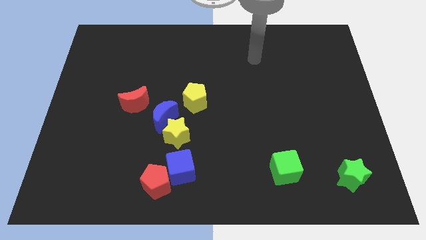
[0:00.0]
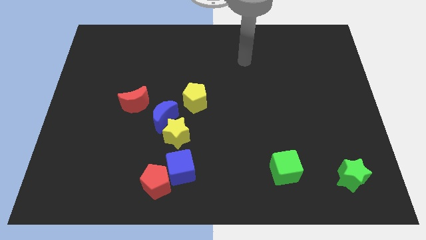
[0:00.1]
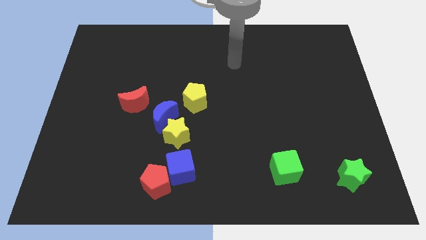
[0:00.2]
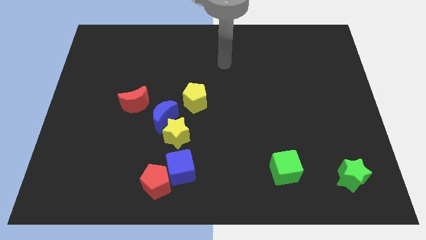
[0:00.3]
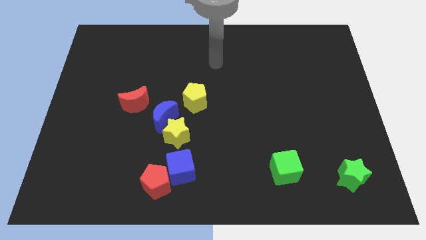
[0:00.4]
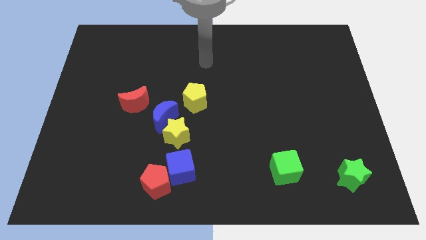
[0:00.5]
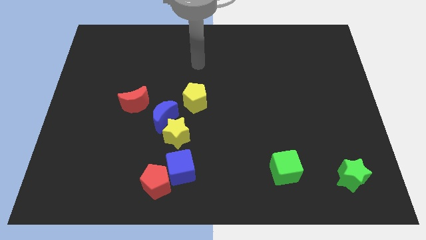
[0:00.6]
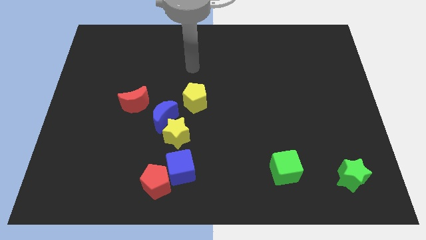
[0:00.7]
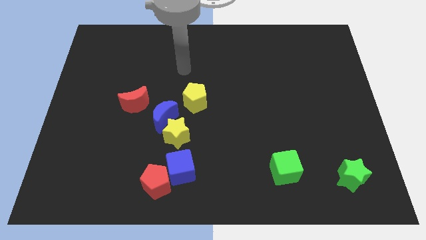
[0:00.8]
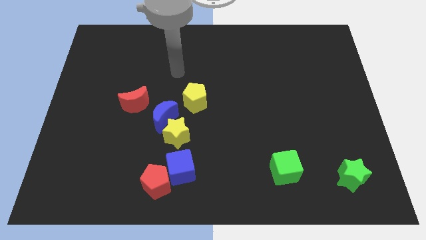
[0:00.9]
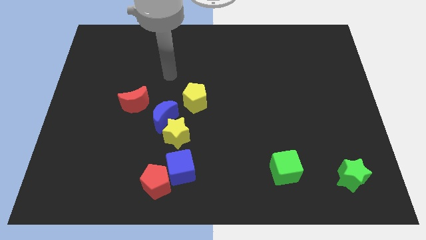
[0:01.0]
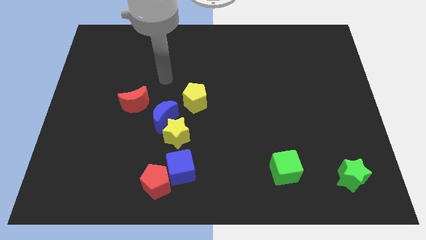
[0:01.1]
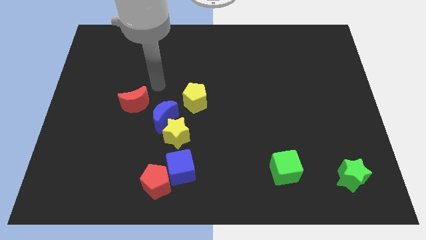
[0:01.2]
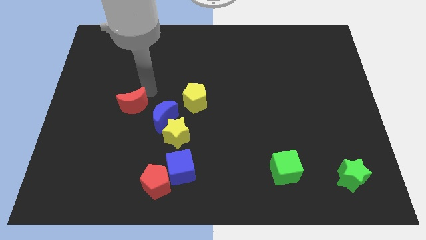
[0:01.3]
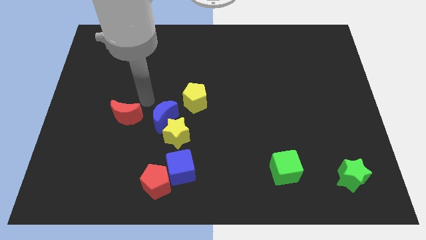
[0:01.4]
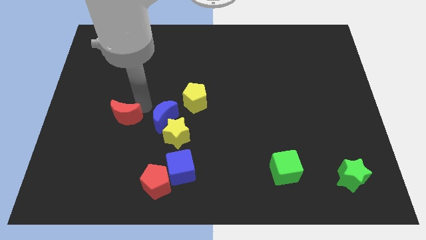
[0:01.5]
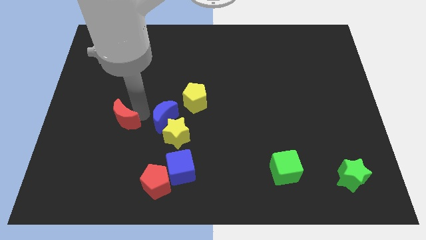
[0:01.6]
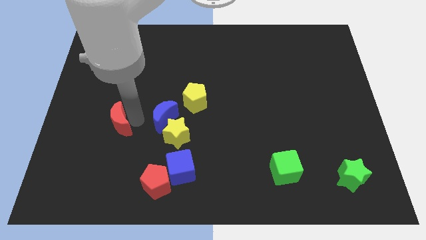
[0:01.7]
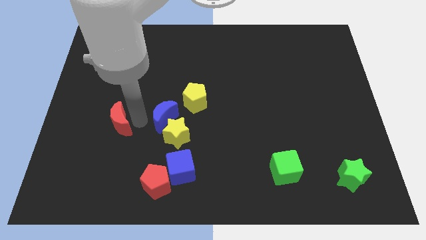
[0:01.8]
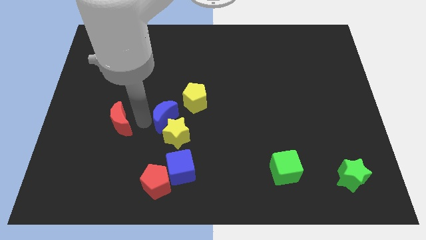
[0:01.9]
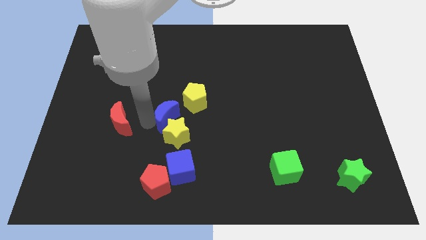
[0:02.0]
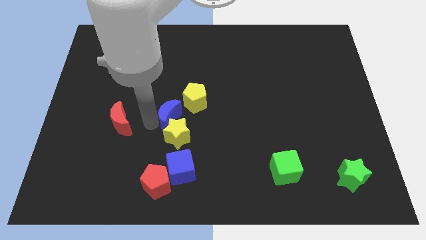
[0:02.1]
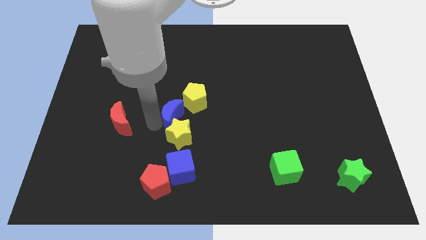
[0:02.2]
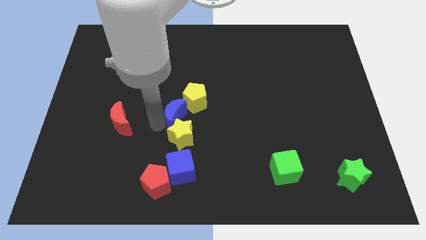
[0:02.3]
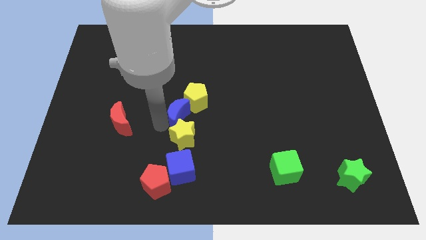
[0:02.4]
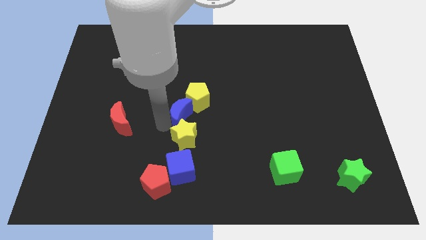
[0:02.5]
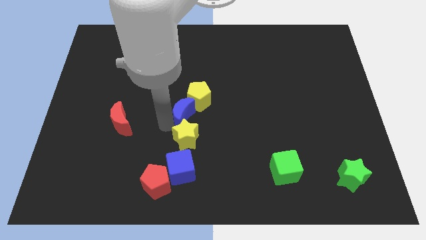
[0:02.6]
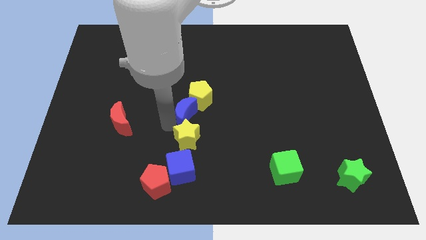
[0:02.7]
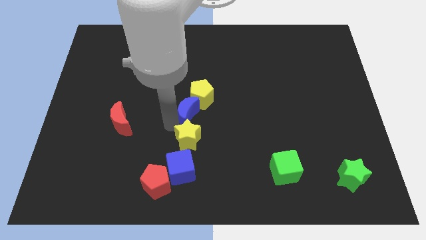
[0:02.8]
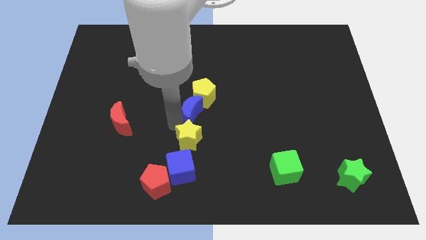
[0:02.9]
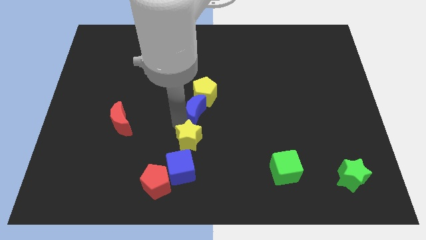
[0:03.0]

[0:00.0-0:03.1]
move the blue moon a little bit right

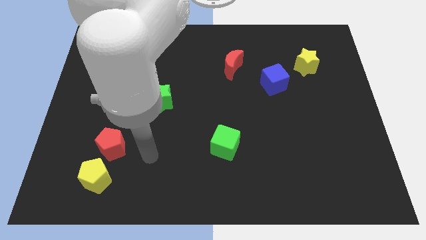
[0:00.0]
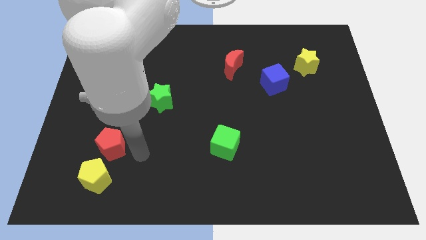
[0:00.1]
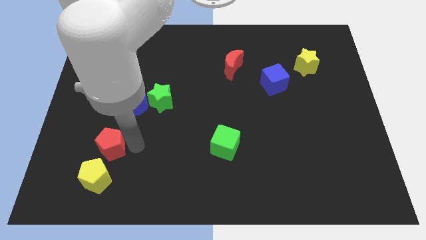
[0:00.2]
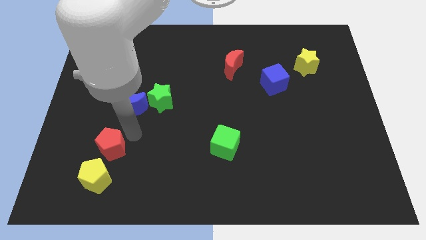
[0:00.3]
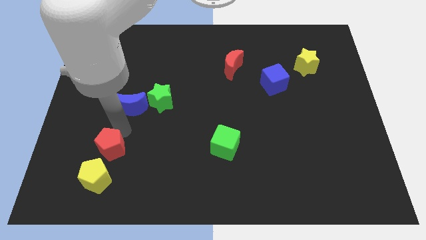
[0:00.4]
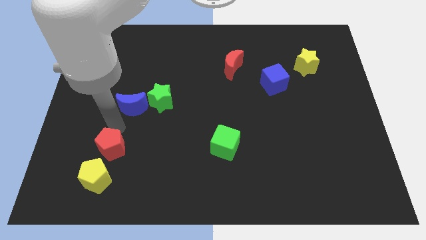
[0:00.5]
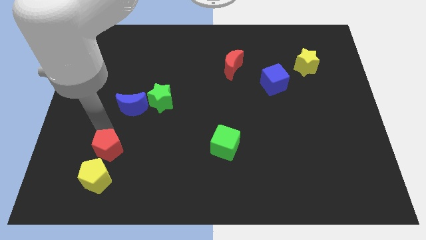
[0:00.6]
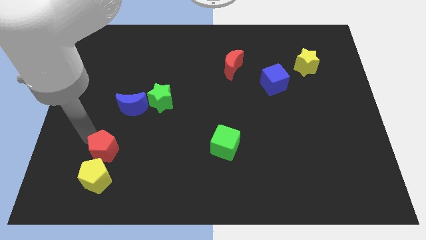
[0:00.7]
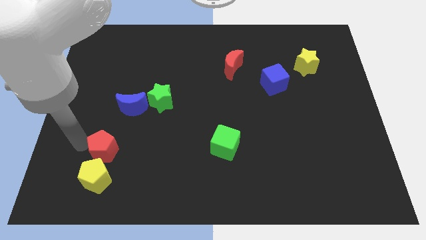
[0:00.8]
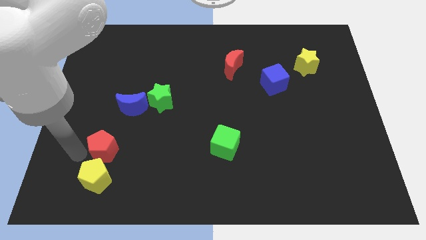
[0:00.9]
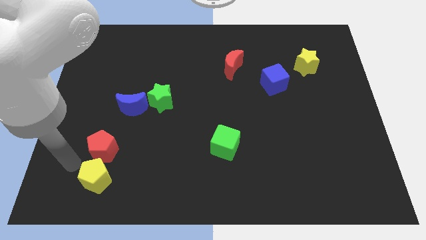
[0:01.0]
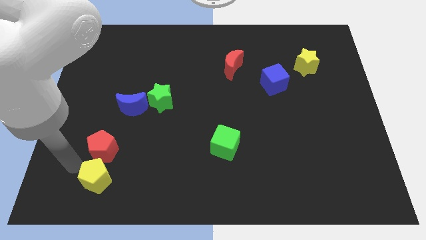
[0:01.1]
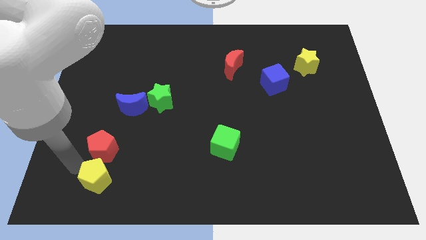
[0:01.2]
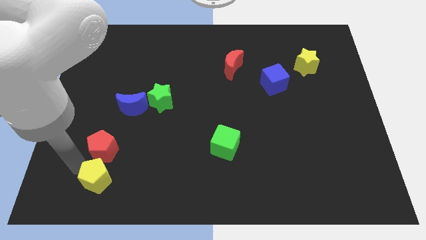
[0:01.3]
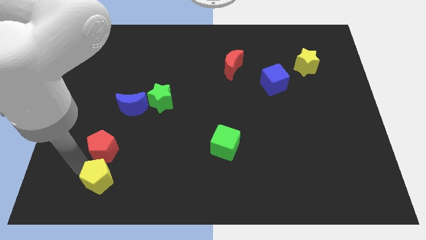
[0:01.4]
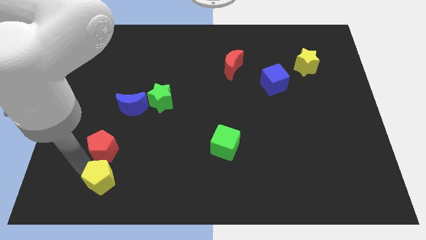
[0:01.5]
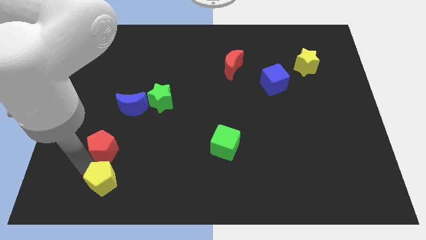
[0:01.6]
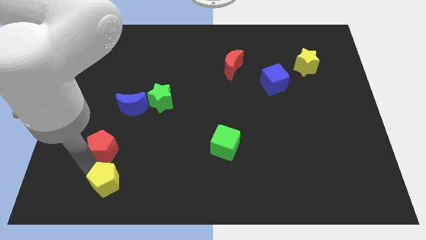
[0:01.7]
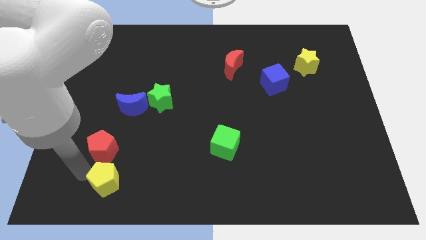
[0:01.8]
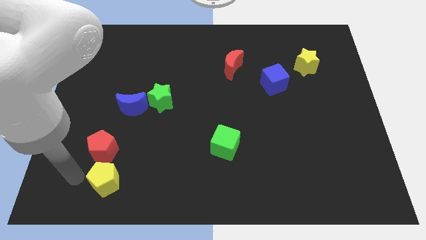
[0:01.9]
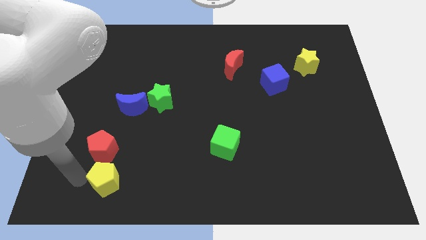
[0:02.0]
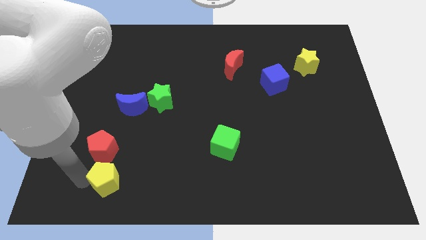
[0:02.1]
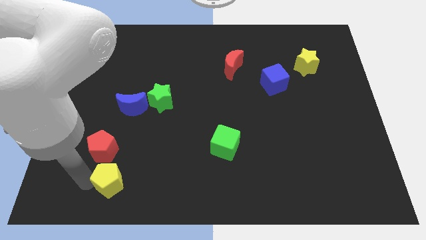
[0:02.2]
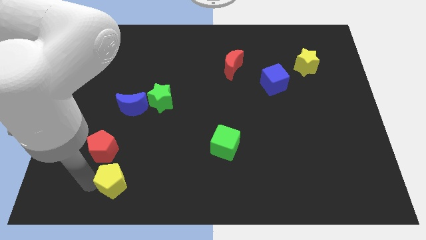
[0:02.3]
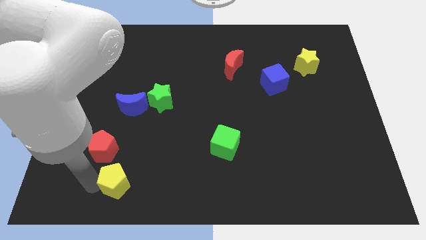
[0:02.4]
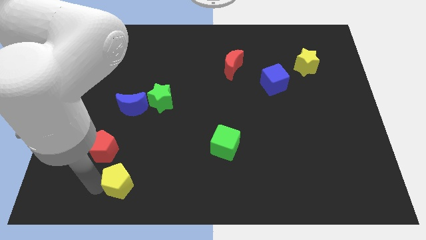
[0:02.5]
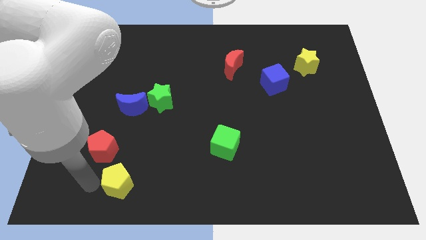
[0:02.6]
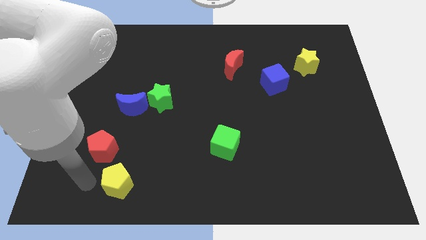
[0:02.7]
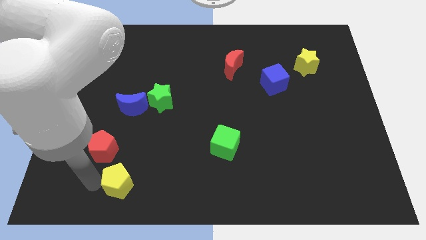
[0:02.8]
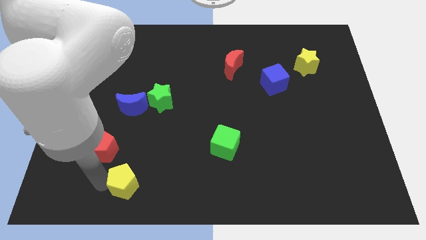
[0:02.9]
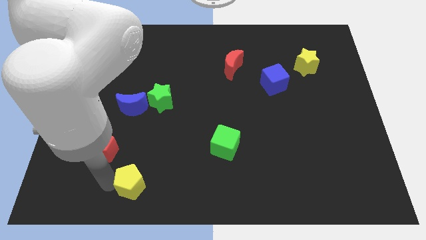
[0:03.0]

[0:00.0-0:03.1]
slide the yellow pentagon slightly to the right

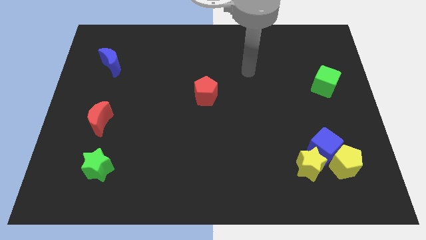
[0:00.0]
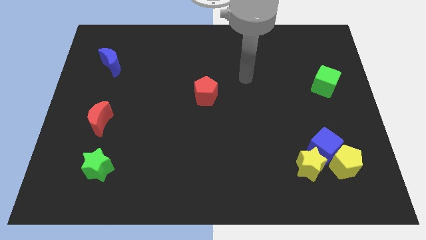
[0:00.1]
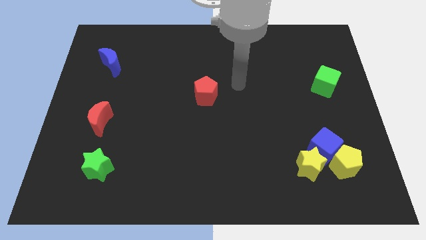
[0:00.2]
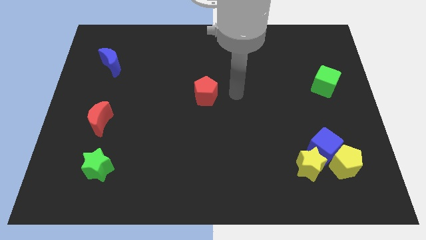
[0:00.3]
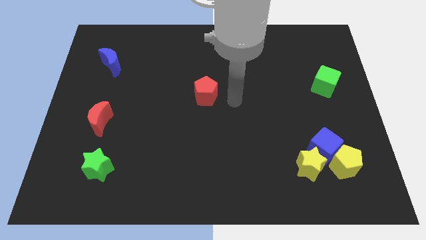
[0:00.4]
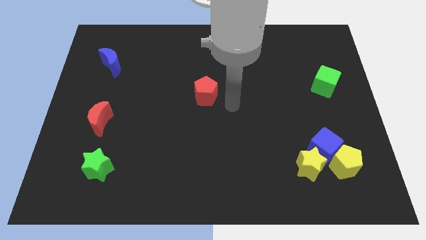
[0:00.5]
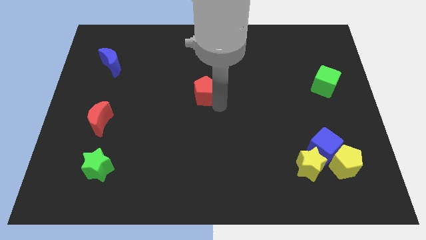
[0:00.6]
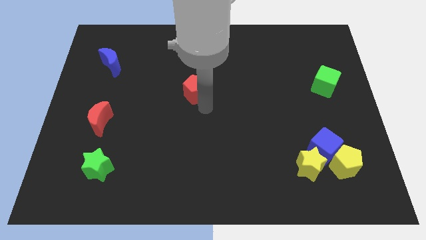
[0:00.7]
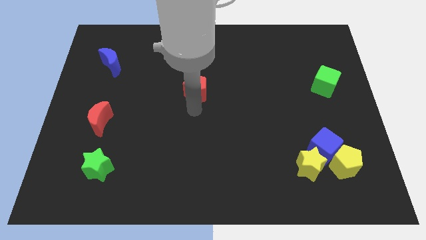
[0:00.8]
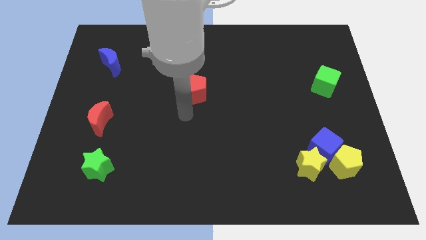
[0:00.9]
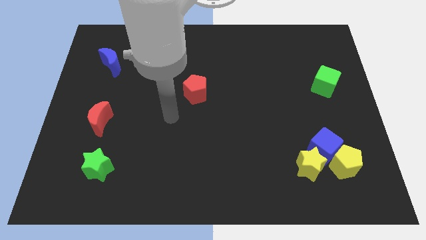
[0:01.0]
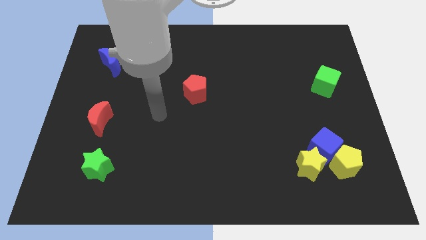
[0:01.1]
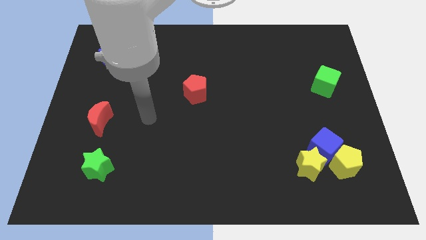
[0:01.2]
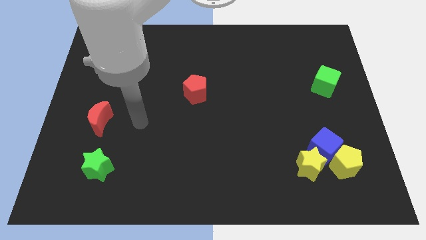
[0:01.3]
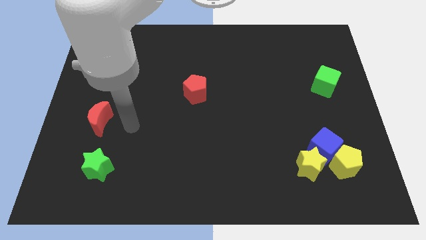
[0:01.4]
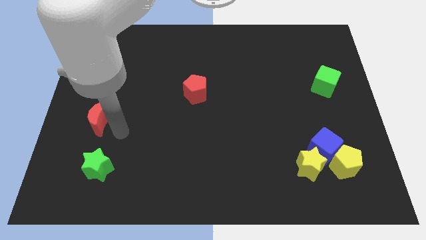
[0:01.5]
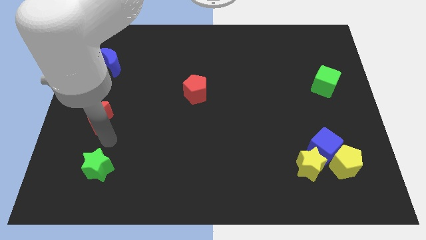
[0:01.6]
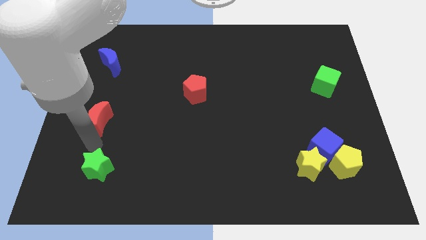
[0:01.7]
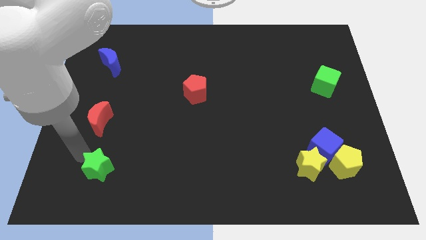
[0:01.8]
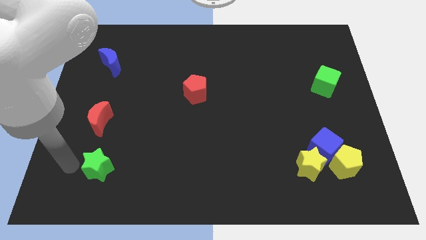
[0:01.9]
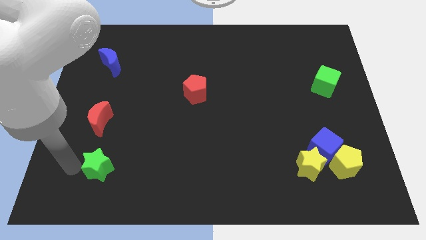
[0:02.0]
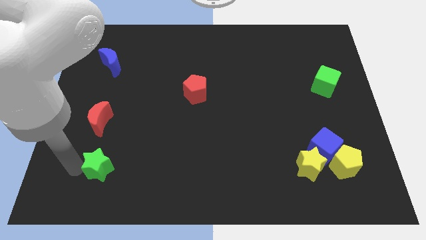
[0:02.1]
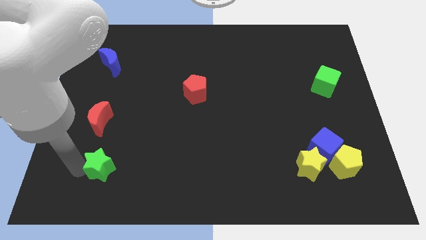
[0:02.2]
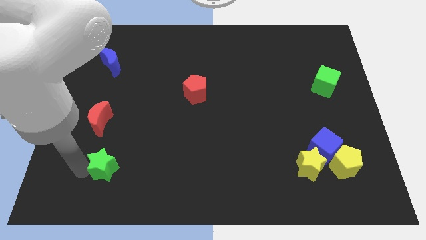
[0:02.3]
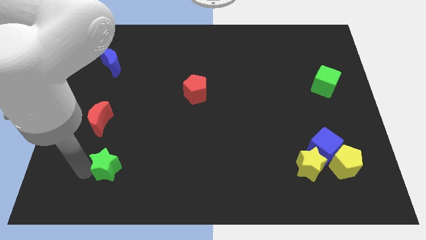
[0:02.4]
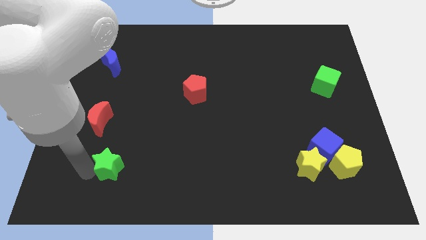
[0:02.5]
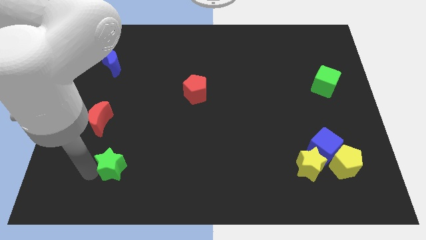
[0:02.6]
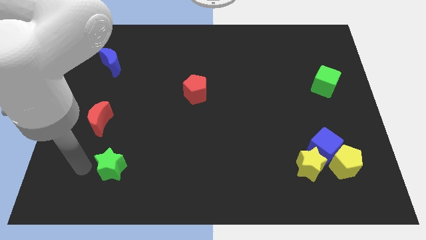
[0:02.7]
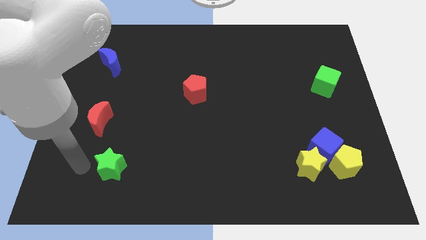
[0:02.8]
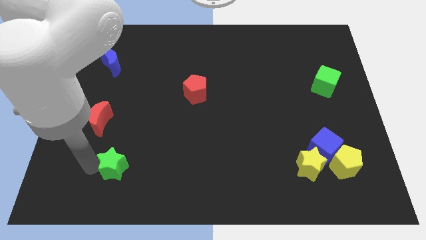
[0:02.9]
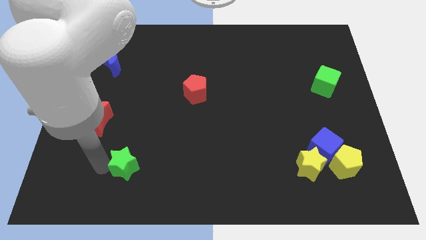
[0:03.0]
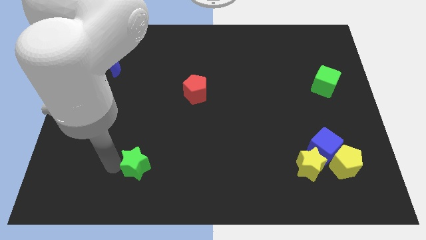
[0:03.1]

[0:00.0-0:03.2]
move the green star a little right
